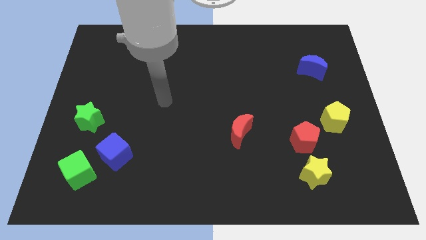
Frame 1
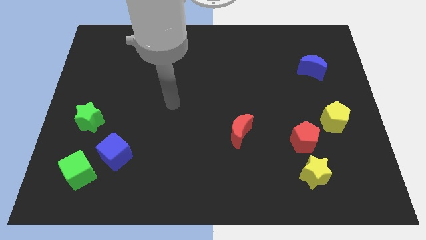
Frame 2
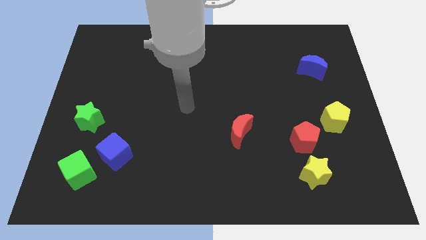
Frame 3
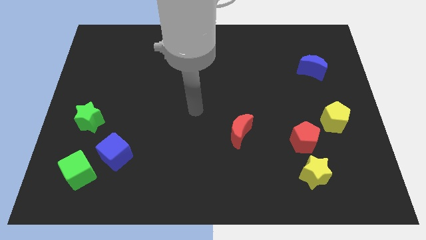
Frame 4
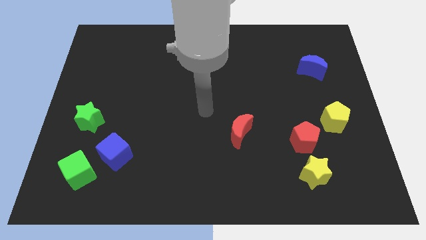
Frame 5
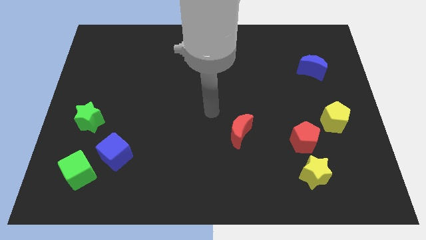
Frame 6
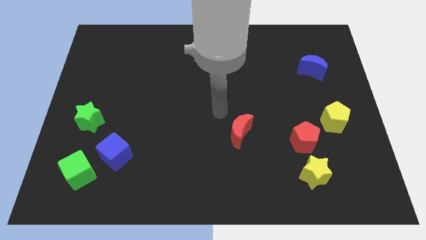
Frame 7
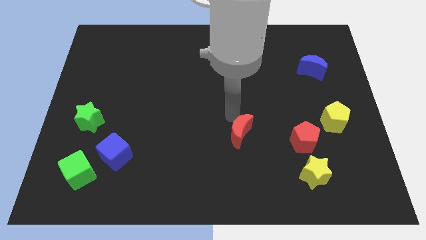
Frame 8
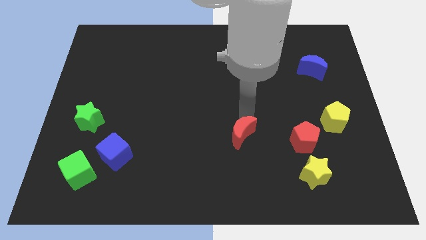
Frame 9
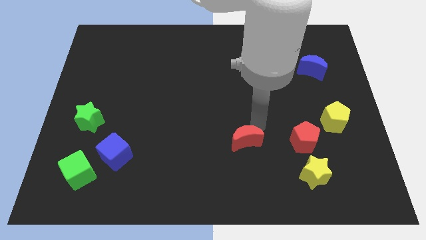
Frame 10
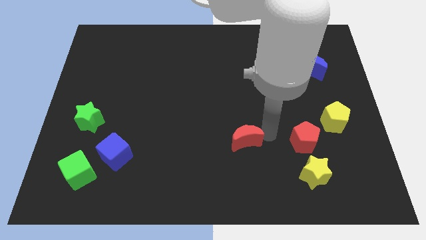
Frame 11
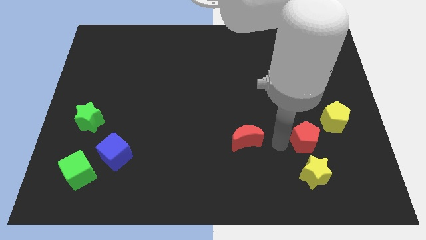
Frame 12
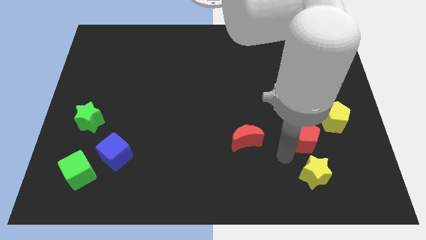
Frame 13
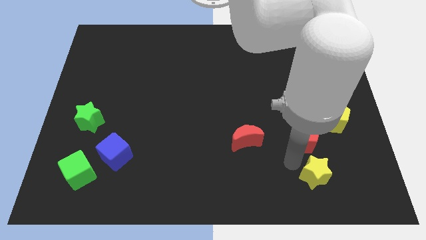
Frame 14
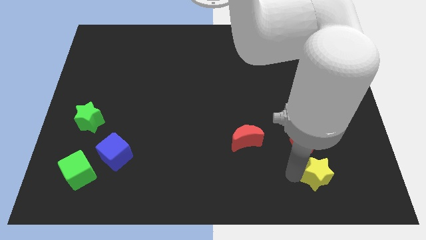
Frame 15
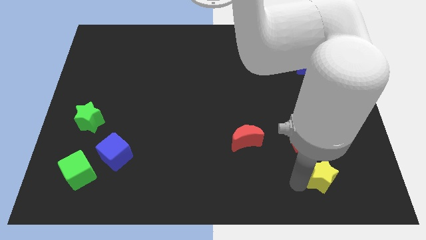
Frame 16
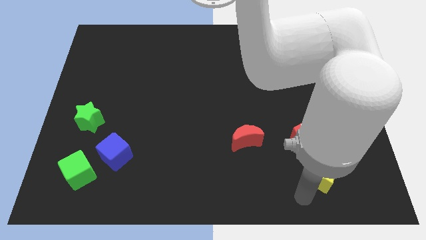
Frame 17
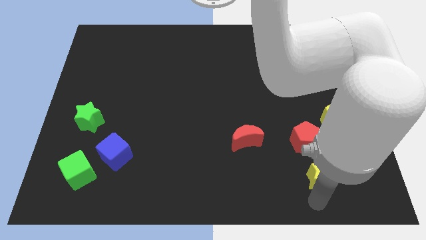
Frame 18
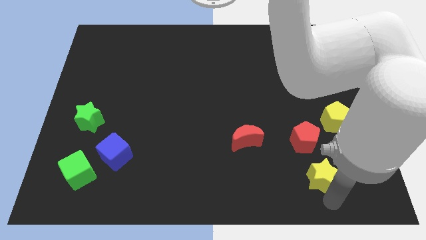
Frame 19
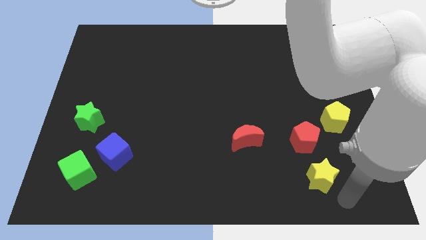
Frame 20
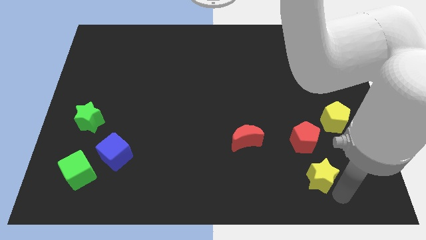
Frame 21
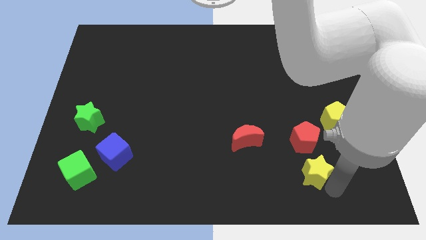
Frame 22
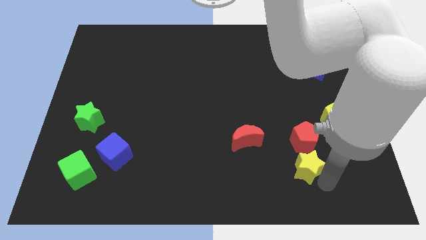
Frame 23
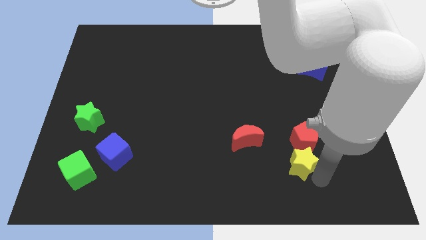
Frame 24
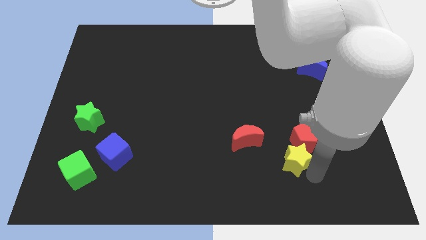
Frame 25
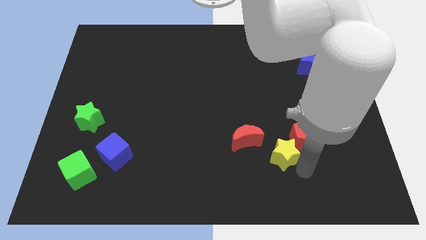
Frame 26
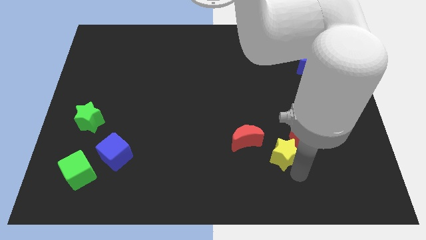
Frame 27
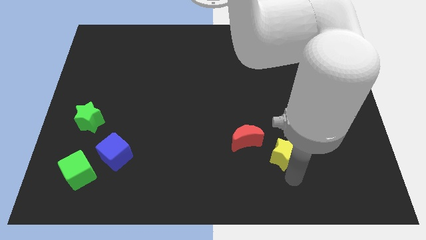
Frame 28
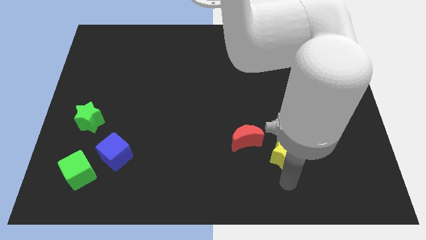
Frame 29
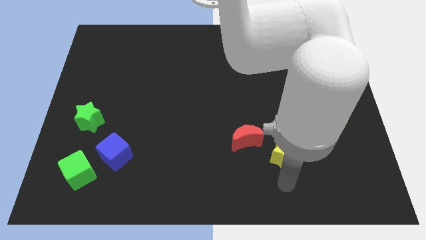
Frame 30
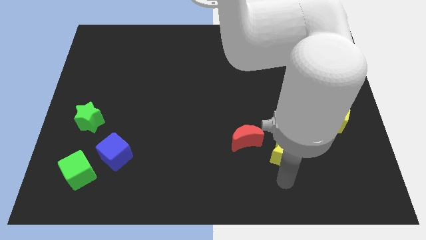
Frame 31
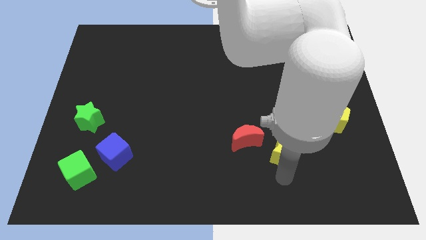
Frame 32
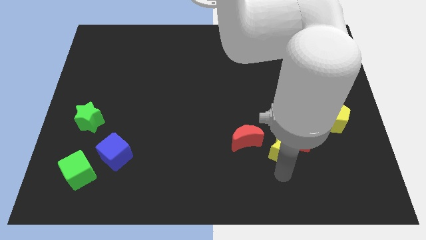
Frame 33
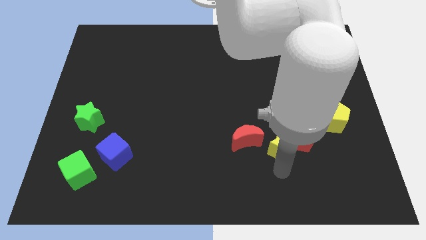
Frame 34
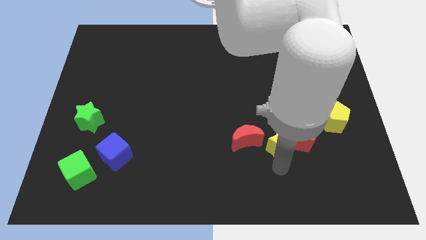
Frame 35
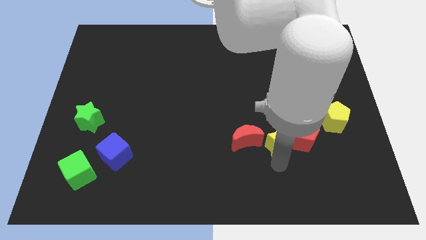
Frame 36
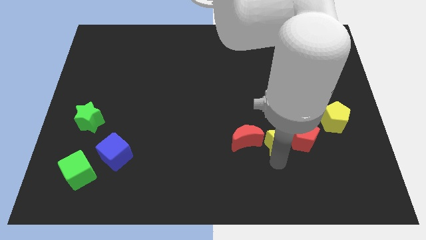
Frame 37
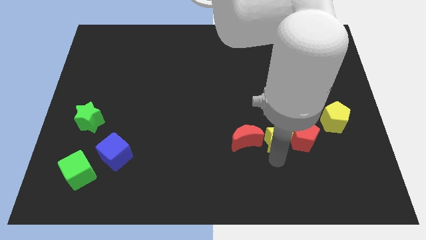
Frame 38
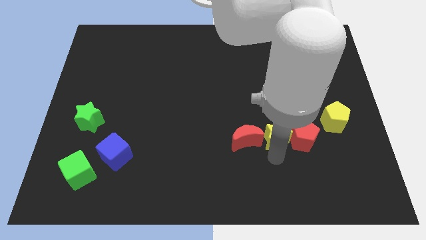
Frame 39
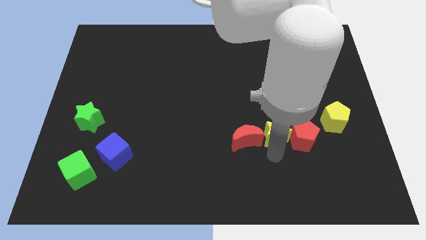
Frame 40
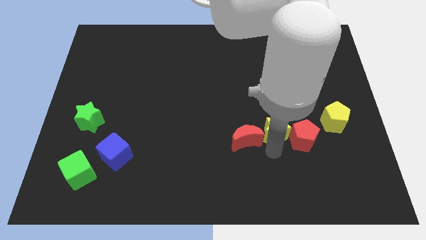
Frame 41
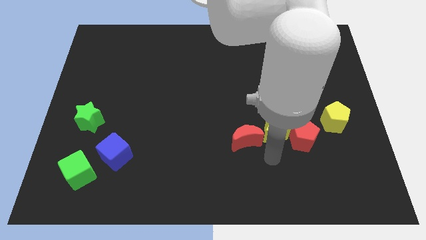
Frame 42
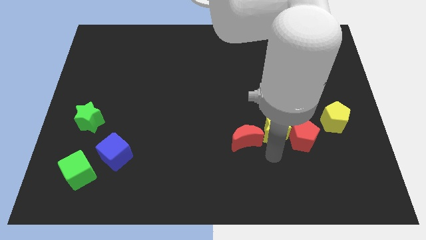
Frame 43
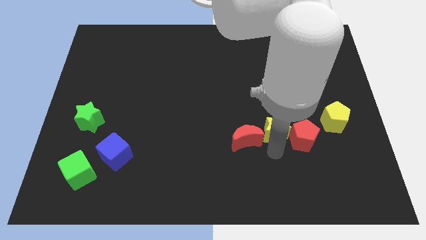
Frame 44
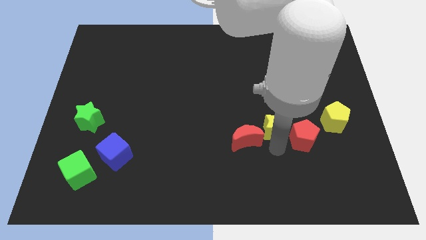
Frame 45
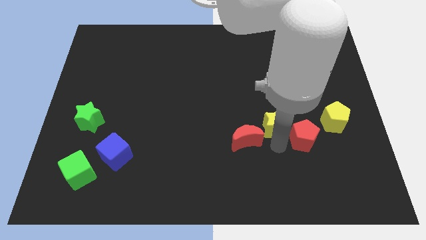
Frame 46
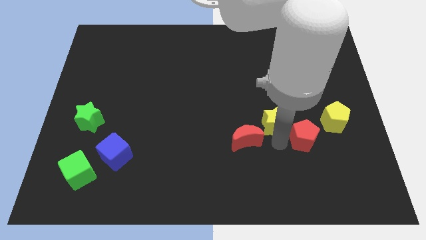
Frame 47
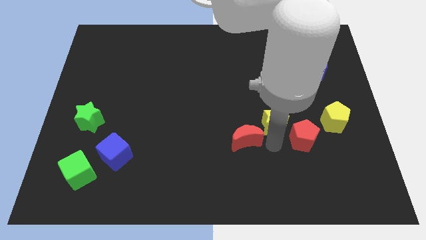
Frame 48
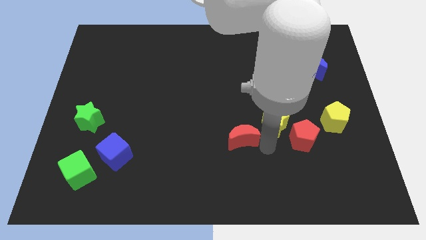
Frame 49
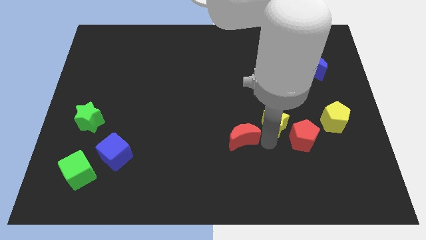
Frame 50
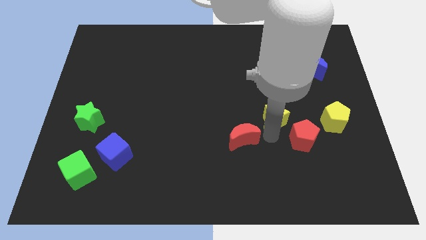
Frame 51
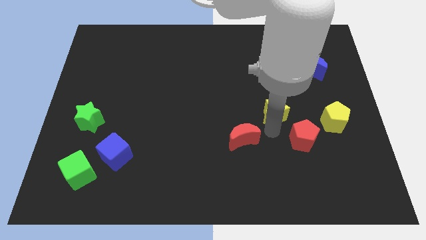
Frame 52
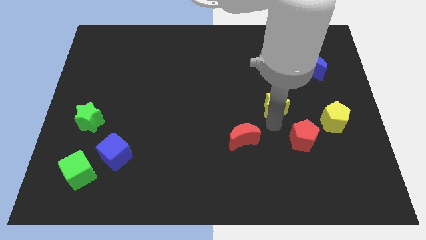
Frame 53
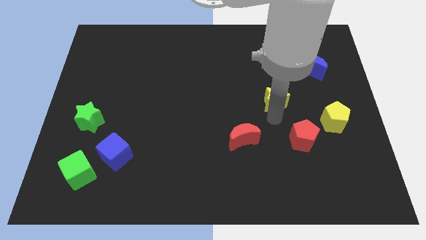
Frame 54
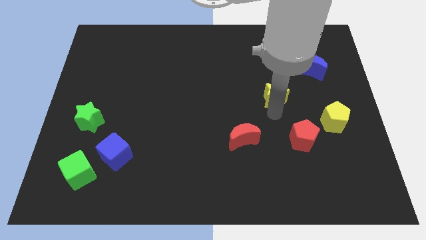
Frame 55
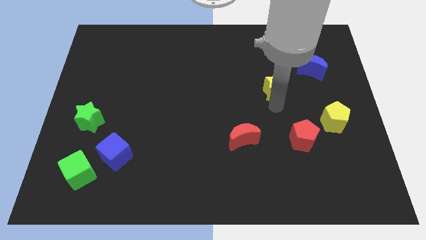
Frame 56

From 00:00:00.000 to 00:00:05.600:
push the yellow star upwards

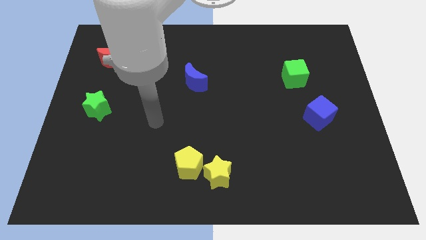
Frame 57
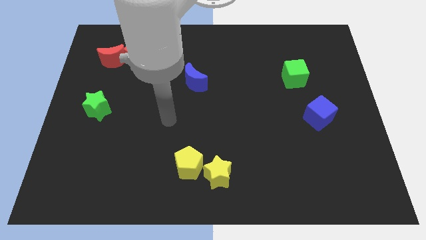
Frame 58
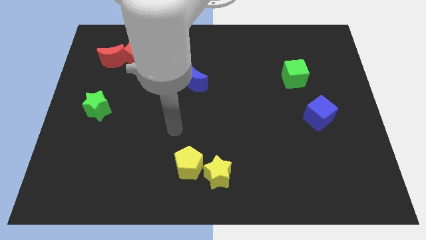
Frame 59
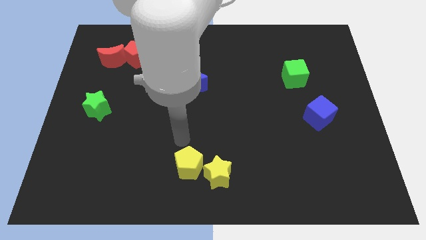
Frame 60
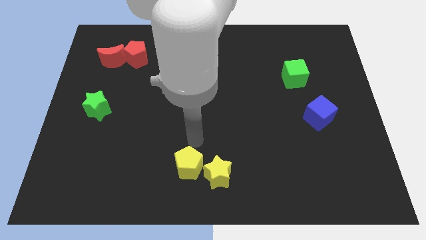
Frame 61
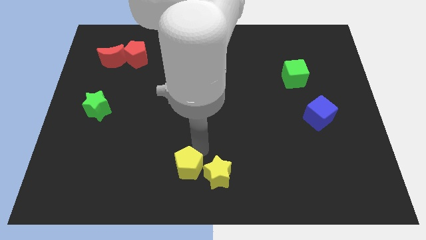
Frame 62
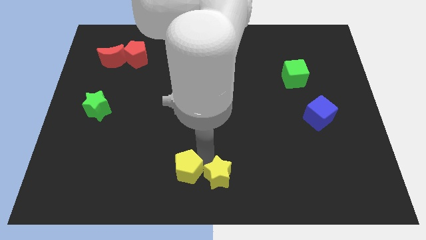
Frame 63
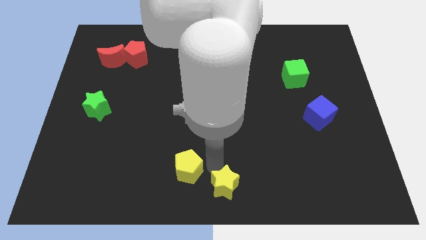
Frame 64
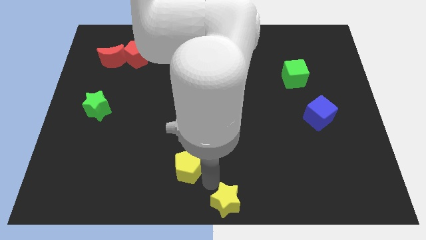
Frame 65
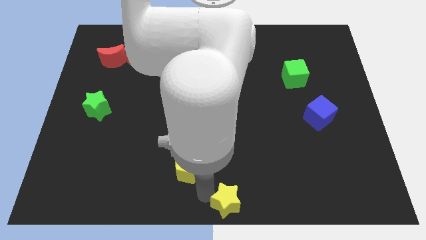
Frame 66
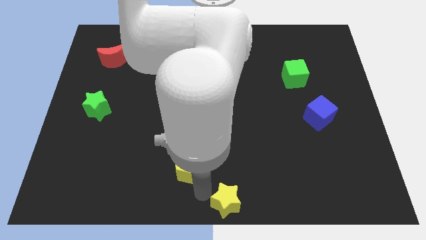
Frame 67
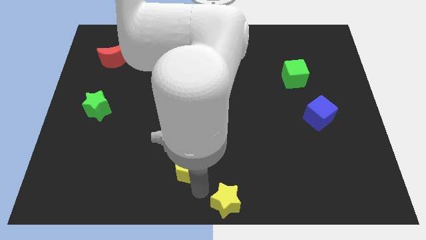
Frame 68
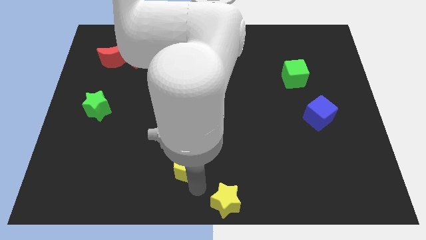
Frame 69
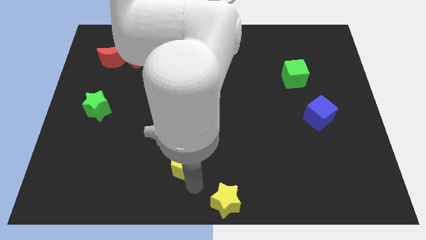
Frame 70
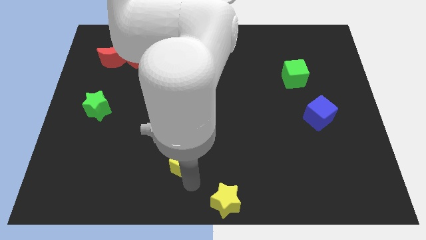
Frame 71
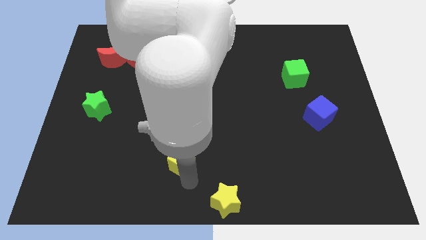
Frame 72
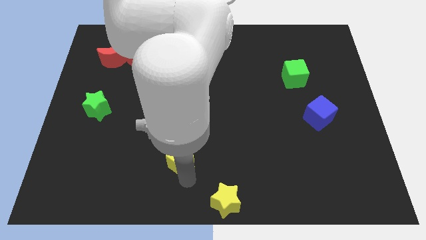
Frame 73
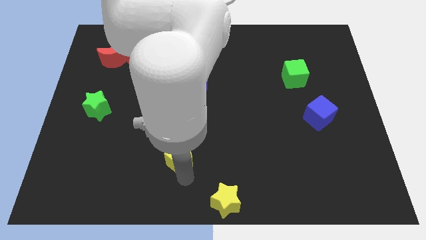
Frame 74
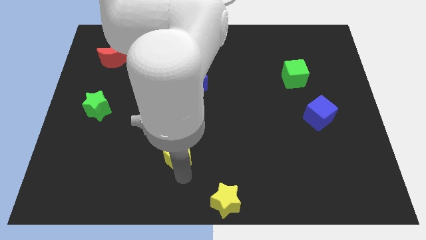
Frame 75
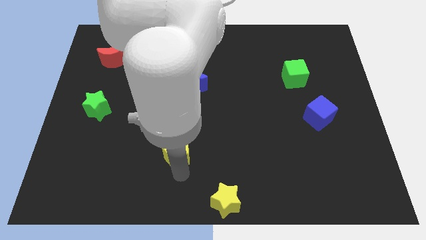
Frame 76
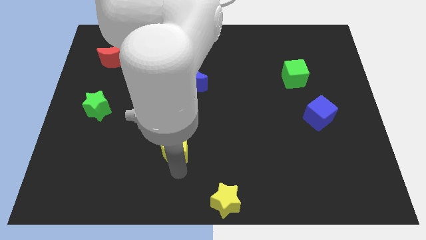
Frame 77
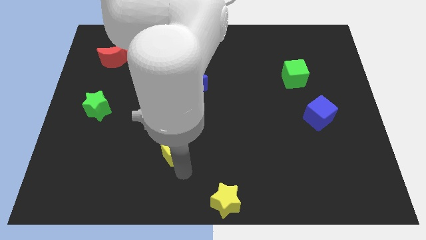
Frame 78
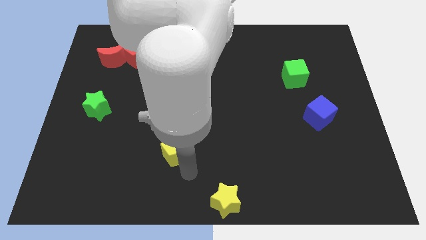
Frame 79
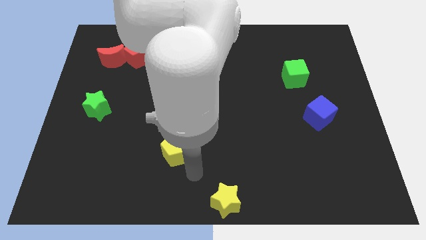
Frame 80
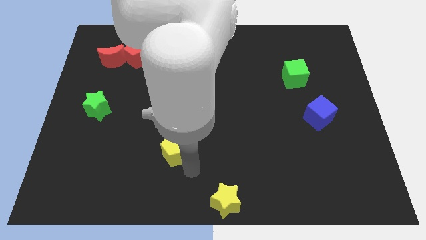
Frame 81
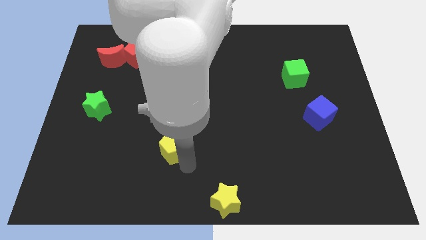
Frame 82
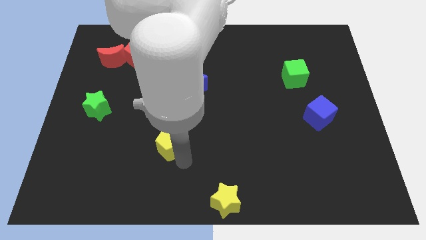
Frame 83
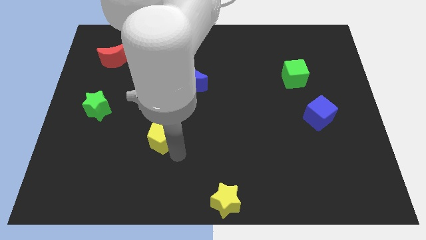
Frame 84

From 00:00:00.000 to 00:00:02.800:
push the yellow pentagon somewhat upwards and to the left diagonally
